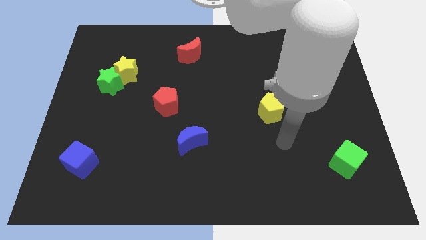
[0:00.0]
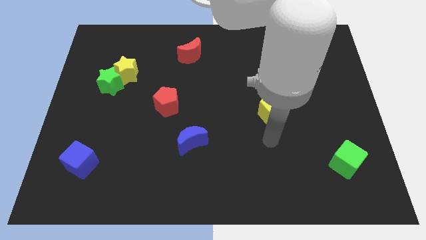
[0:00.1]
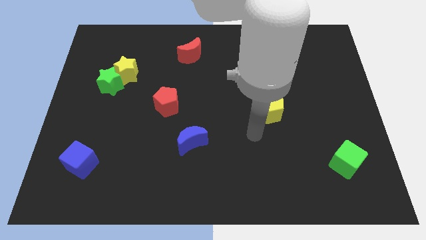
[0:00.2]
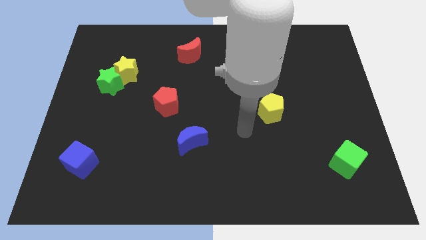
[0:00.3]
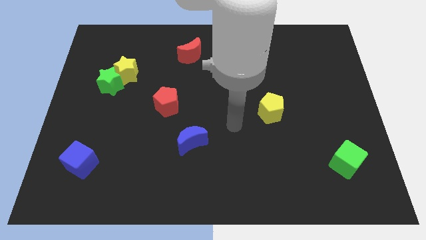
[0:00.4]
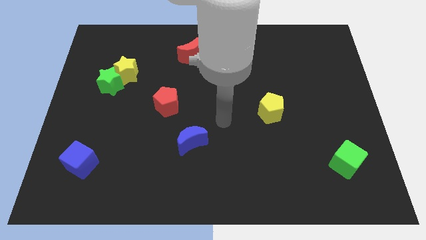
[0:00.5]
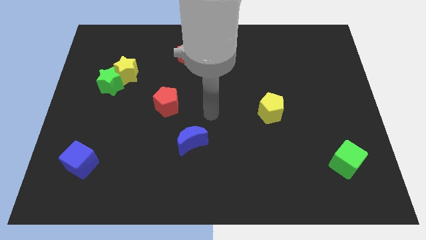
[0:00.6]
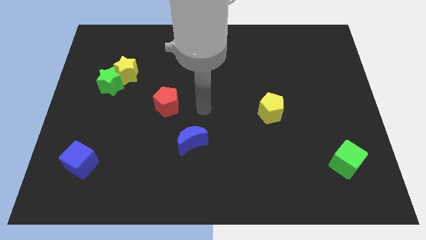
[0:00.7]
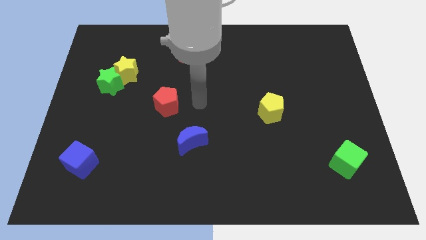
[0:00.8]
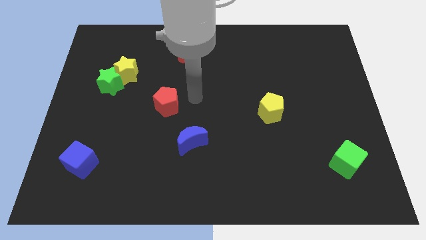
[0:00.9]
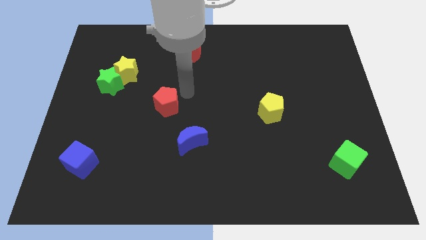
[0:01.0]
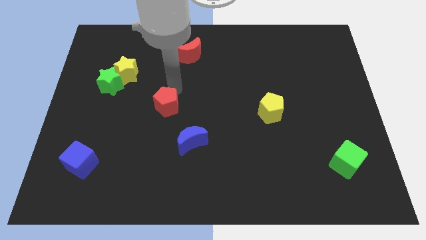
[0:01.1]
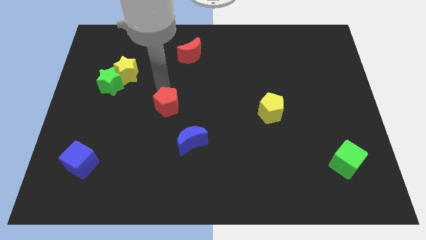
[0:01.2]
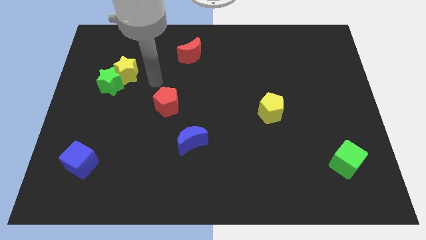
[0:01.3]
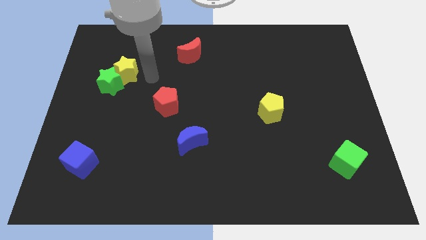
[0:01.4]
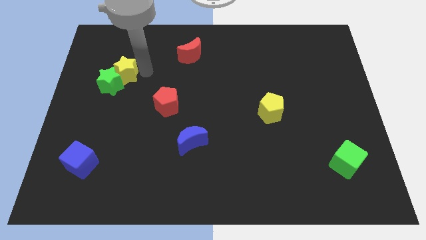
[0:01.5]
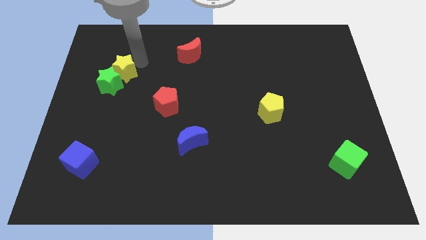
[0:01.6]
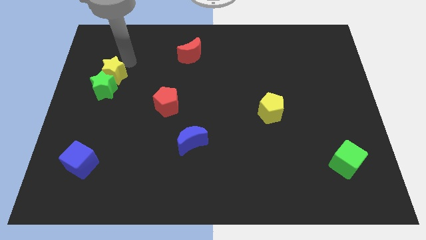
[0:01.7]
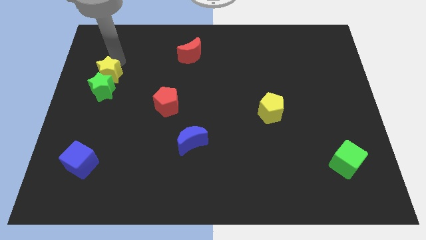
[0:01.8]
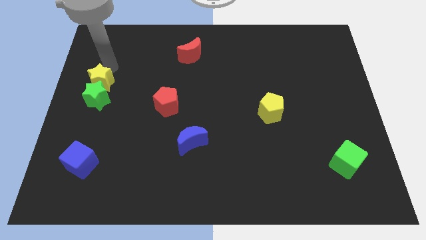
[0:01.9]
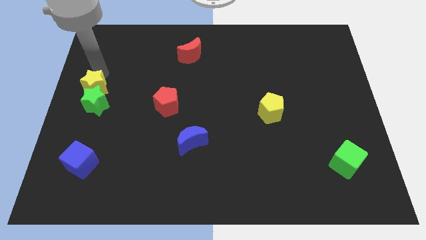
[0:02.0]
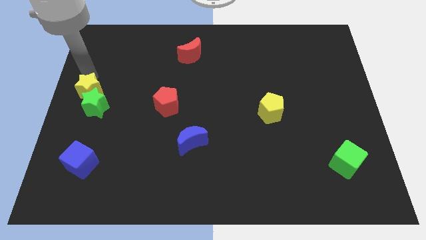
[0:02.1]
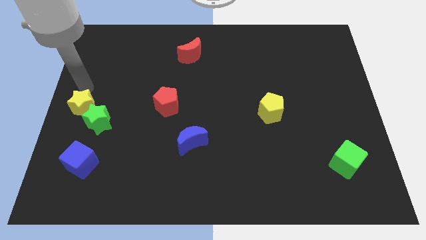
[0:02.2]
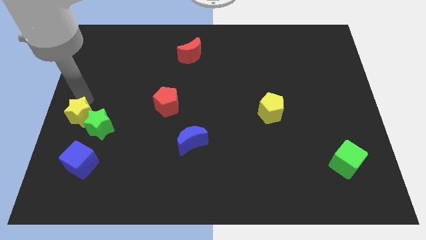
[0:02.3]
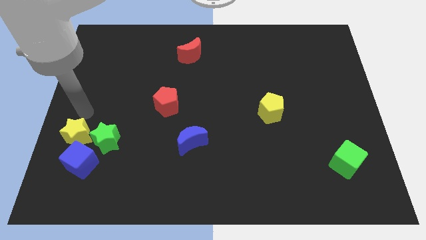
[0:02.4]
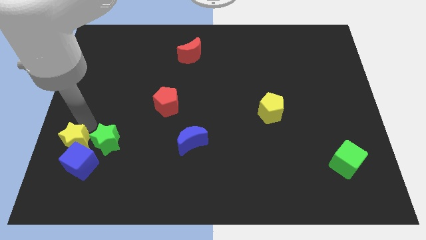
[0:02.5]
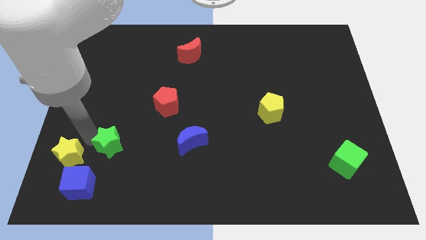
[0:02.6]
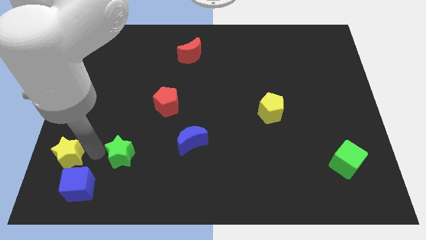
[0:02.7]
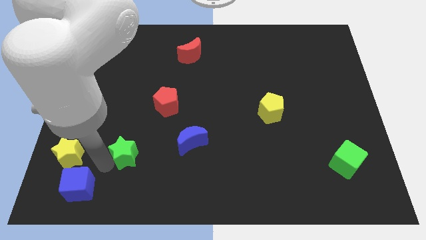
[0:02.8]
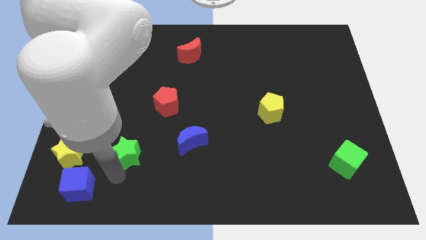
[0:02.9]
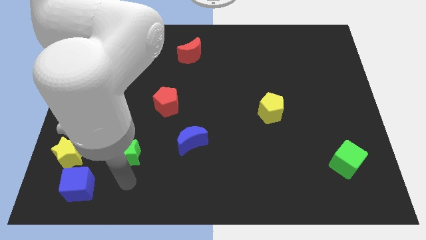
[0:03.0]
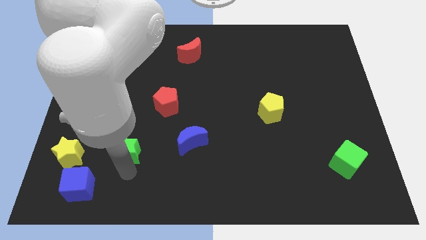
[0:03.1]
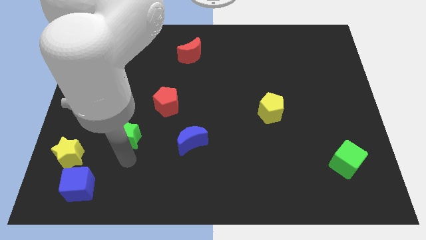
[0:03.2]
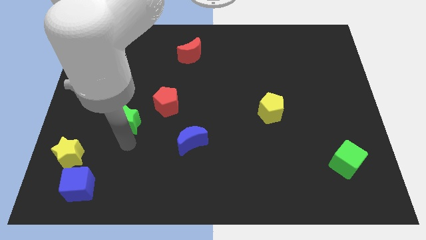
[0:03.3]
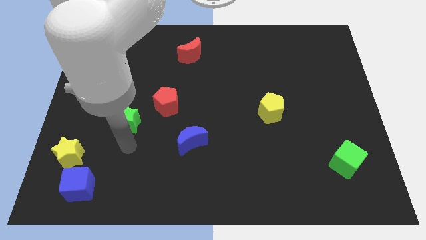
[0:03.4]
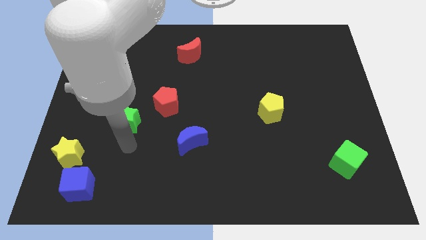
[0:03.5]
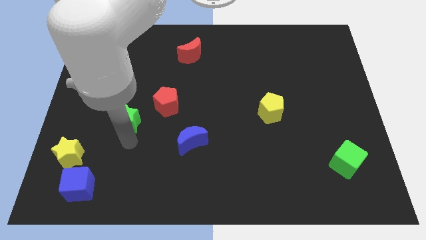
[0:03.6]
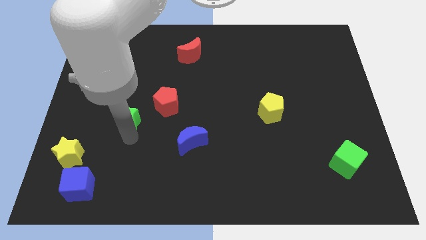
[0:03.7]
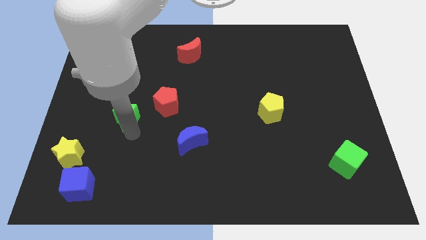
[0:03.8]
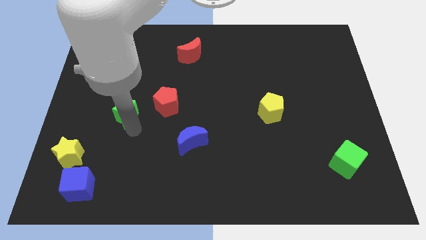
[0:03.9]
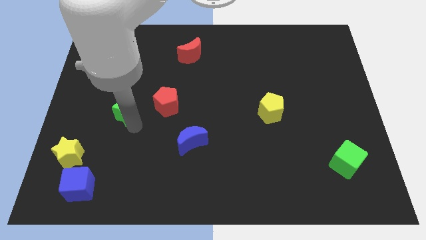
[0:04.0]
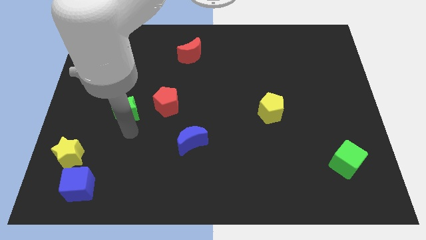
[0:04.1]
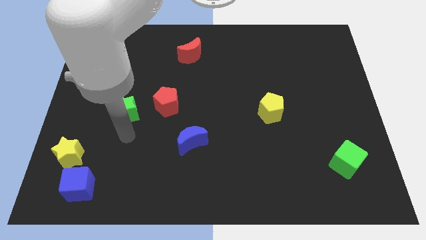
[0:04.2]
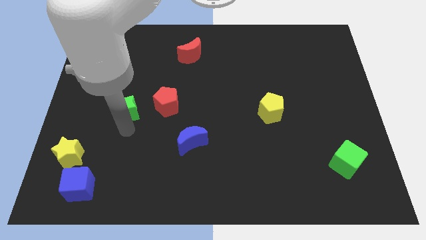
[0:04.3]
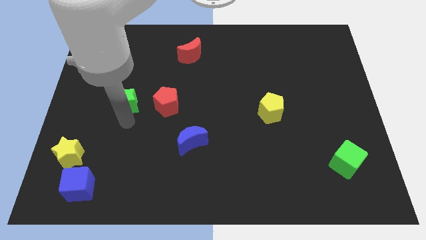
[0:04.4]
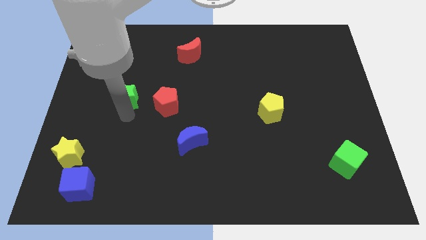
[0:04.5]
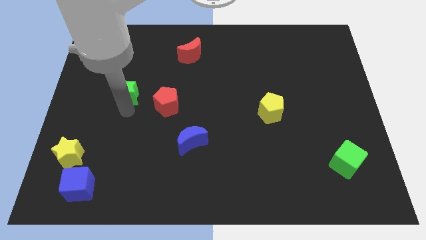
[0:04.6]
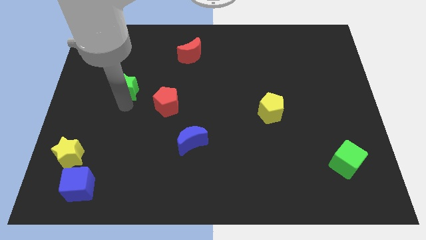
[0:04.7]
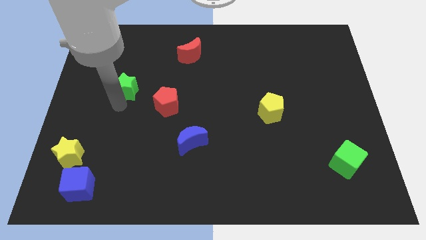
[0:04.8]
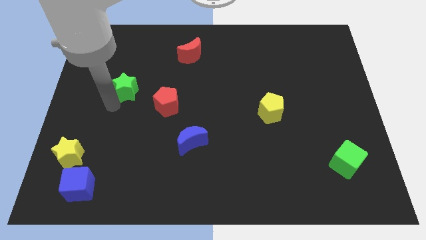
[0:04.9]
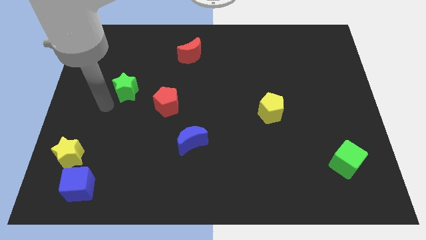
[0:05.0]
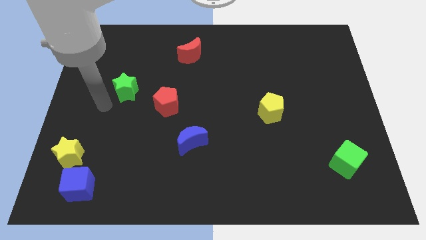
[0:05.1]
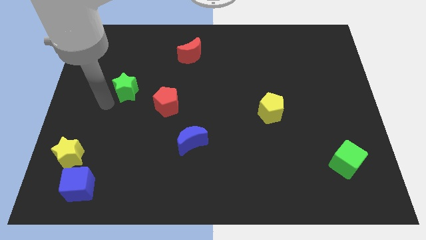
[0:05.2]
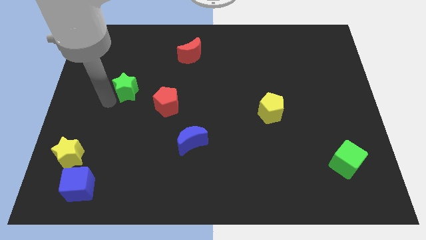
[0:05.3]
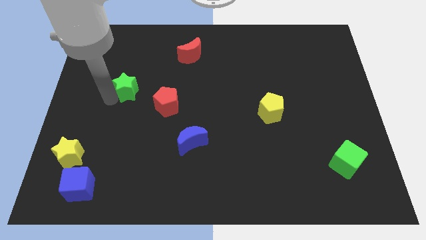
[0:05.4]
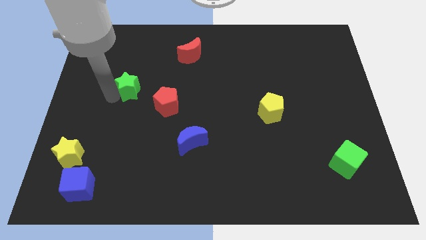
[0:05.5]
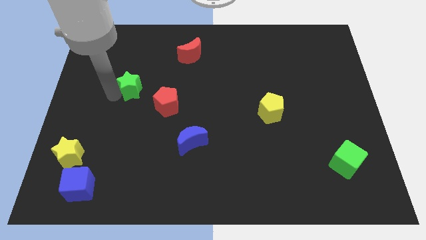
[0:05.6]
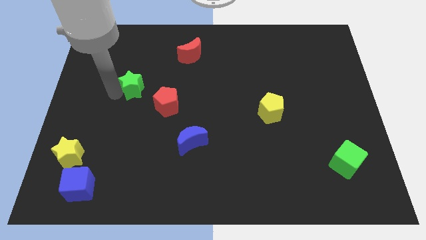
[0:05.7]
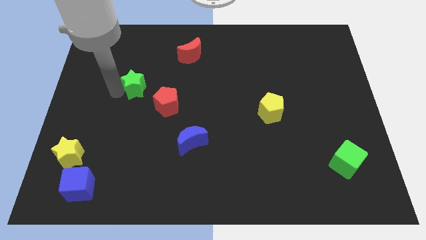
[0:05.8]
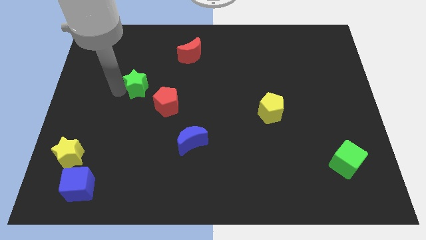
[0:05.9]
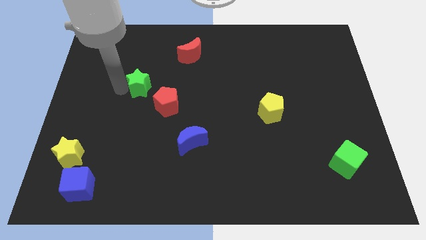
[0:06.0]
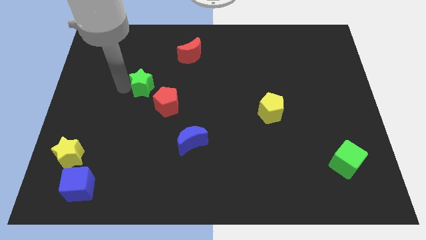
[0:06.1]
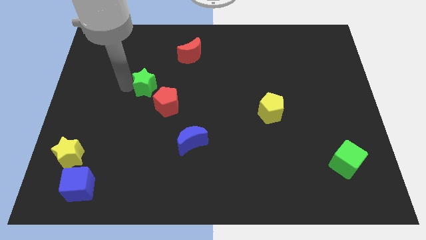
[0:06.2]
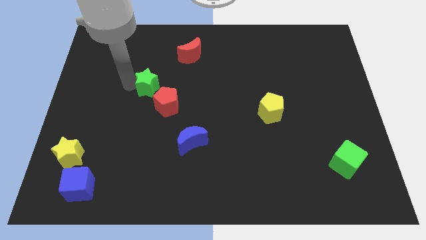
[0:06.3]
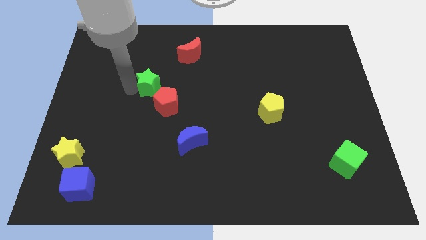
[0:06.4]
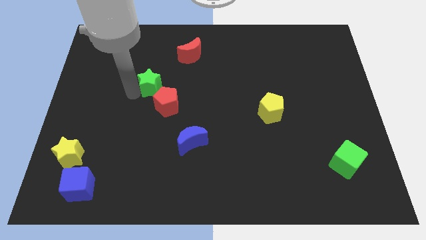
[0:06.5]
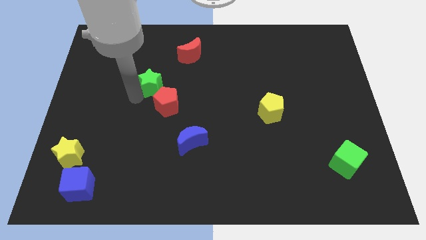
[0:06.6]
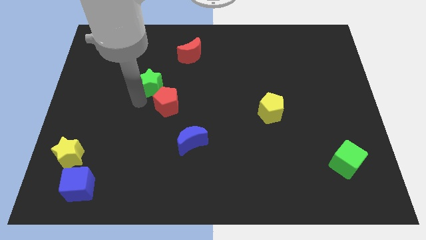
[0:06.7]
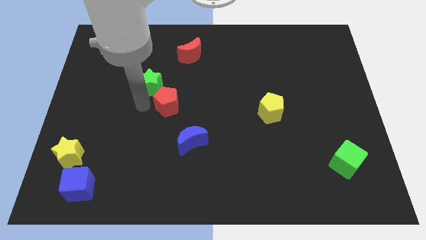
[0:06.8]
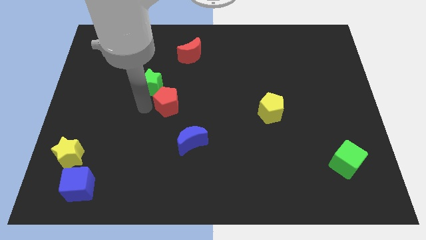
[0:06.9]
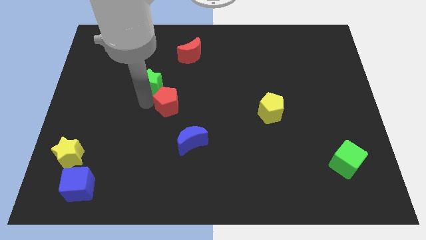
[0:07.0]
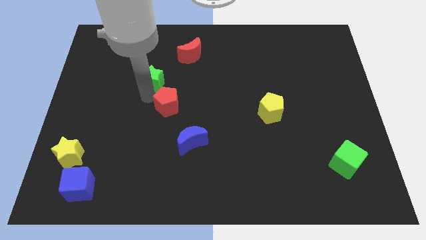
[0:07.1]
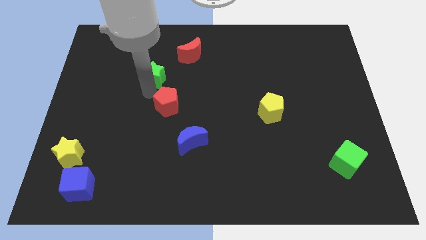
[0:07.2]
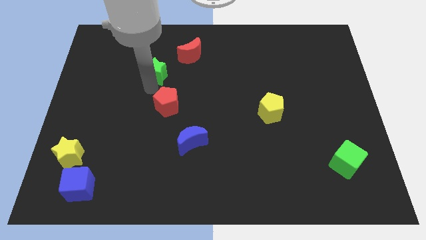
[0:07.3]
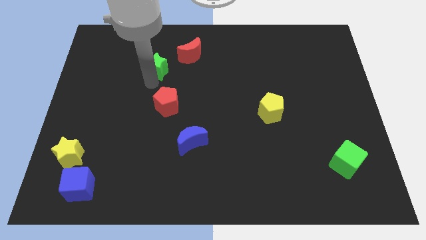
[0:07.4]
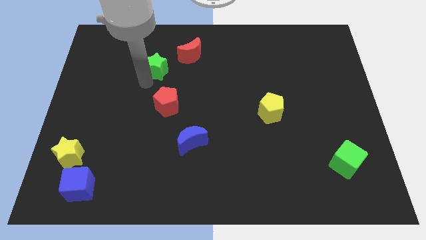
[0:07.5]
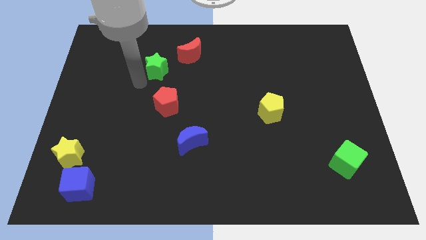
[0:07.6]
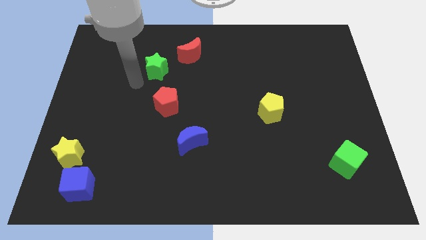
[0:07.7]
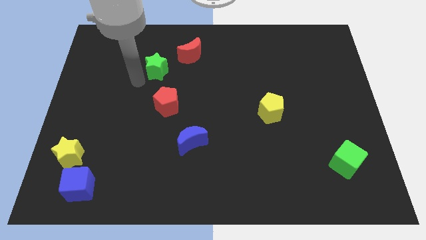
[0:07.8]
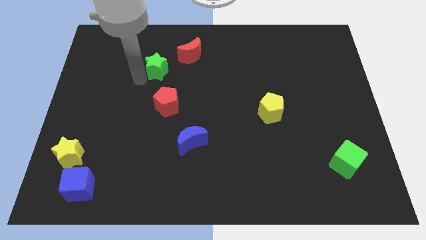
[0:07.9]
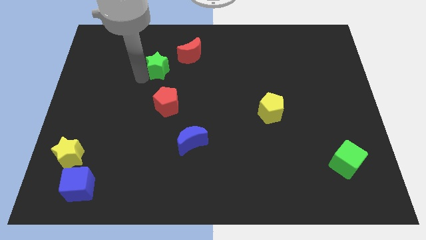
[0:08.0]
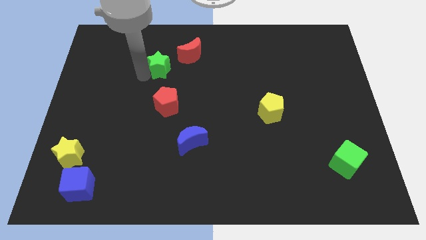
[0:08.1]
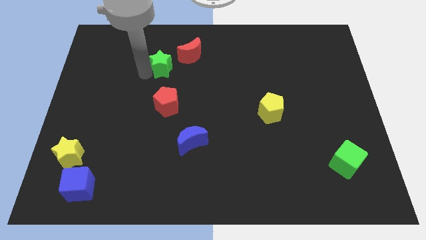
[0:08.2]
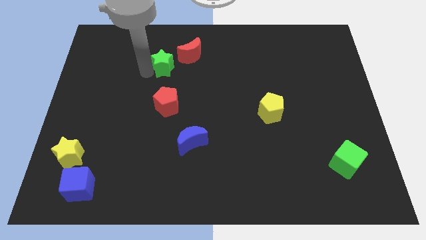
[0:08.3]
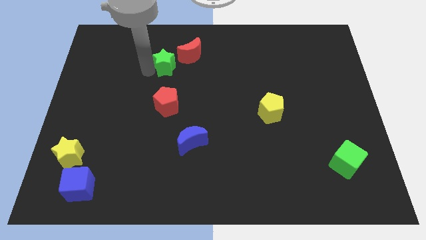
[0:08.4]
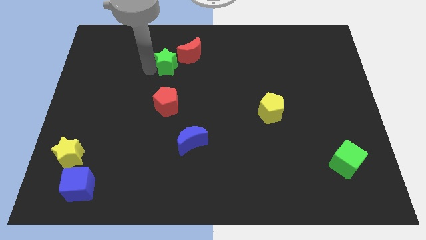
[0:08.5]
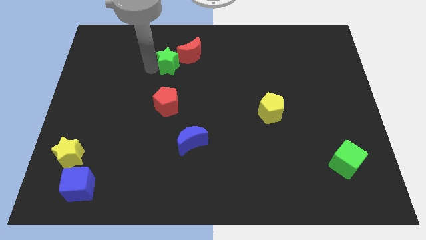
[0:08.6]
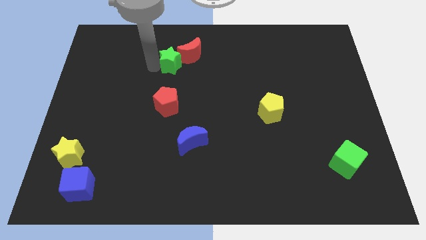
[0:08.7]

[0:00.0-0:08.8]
push the green star to the red moon
